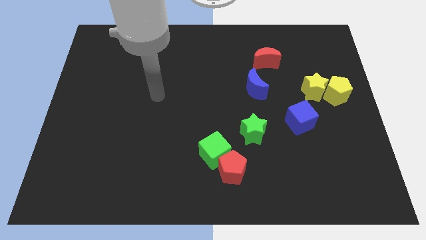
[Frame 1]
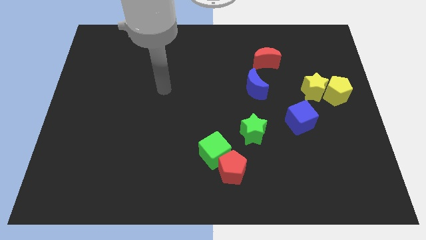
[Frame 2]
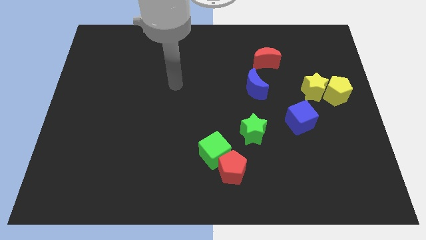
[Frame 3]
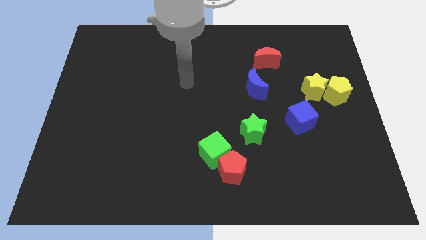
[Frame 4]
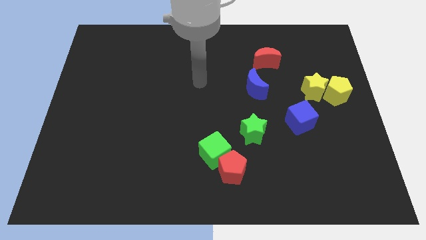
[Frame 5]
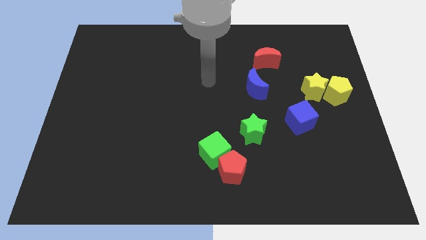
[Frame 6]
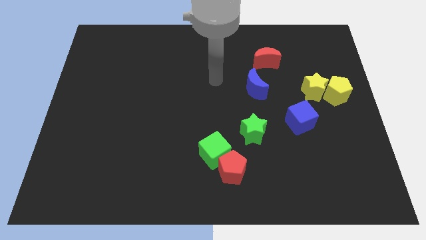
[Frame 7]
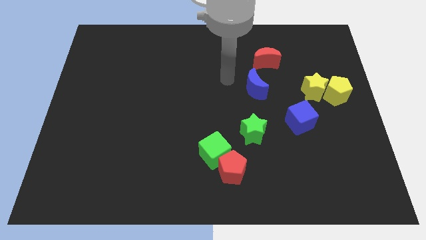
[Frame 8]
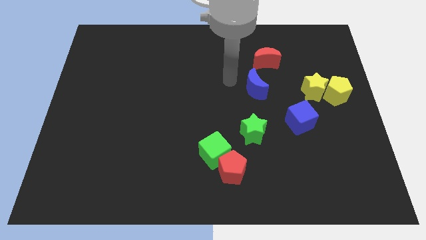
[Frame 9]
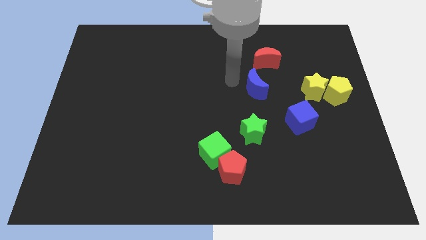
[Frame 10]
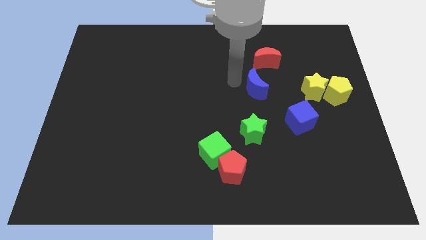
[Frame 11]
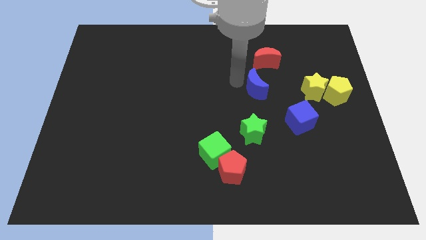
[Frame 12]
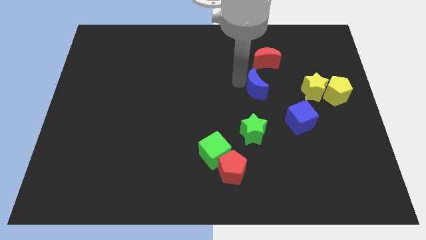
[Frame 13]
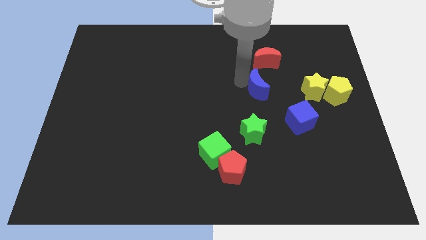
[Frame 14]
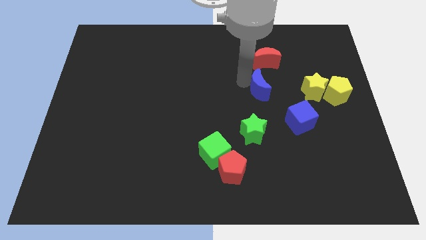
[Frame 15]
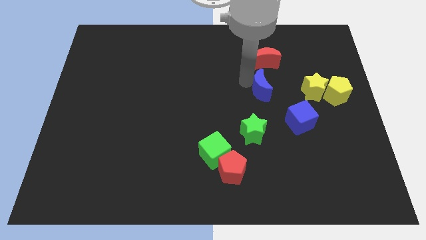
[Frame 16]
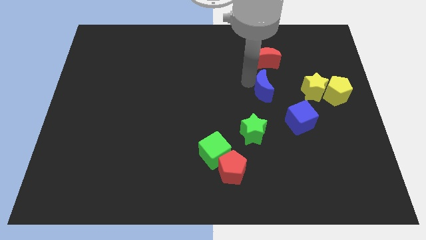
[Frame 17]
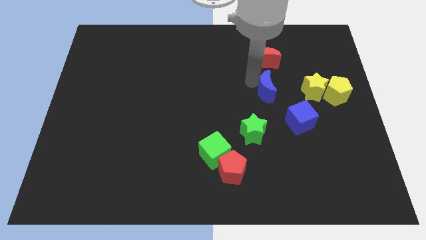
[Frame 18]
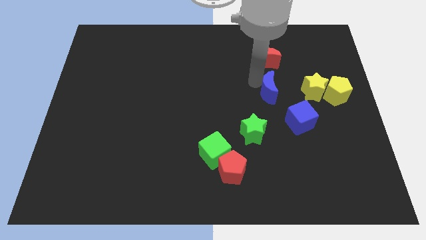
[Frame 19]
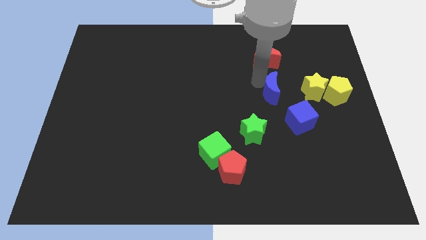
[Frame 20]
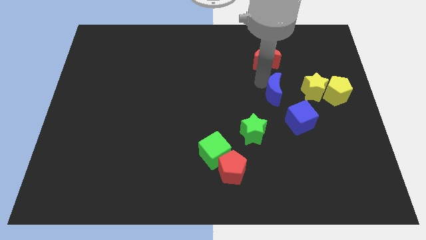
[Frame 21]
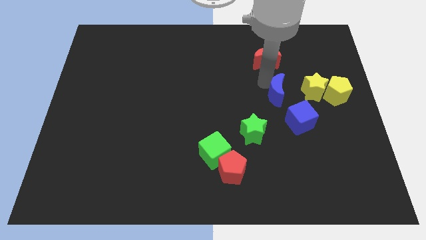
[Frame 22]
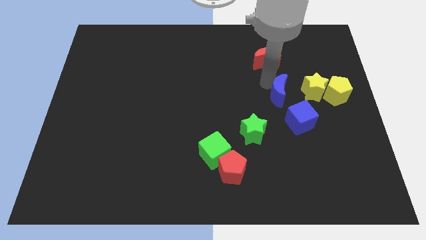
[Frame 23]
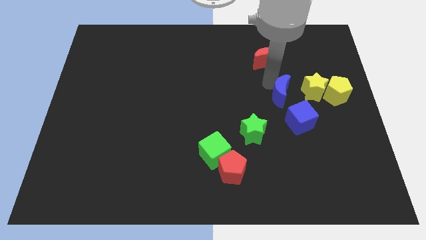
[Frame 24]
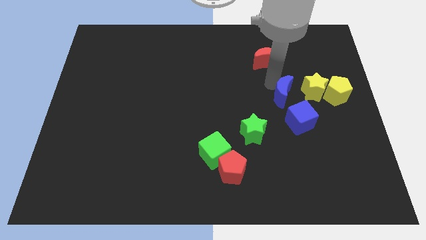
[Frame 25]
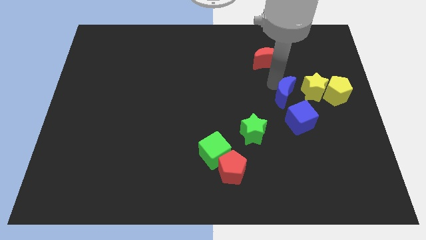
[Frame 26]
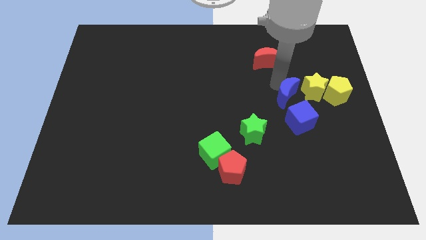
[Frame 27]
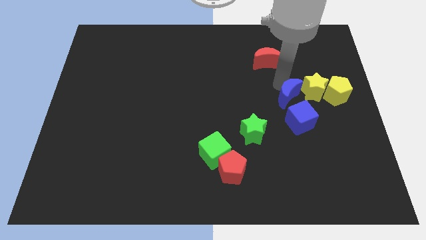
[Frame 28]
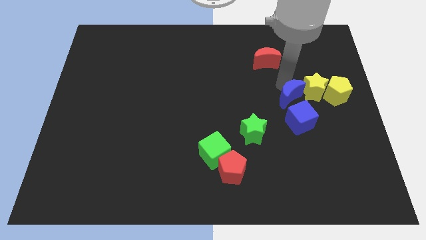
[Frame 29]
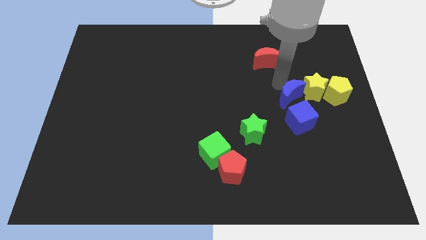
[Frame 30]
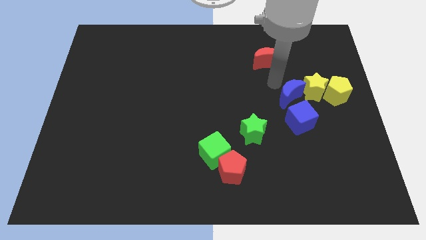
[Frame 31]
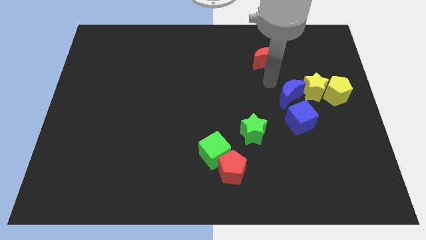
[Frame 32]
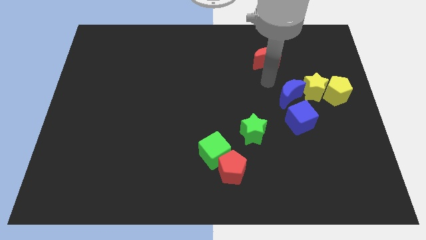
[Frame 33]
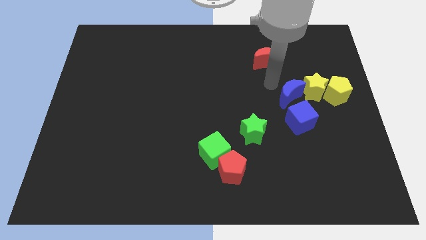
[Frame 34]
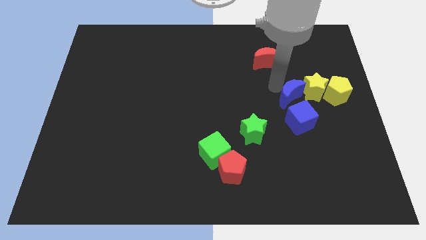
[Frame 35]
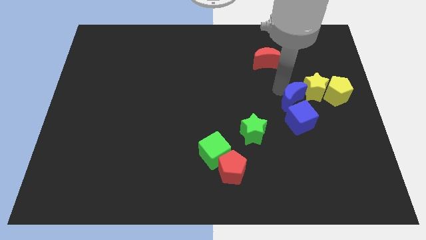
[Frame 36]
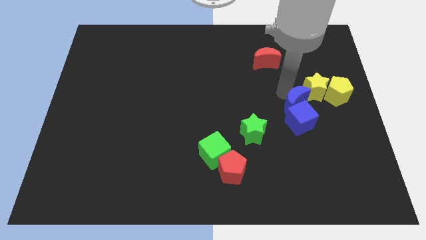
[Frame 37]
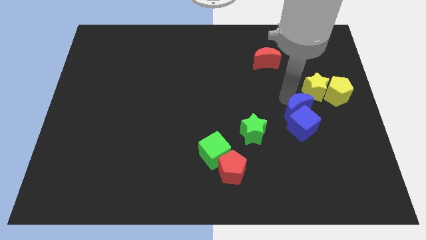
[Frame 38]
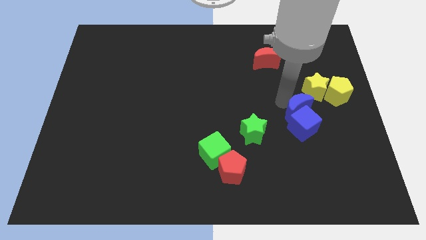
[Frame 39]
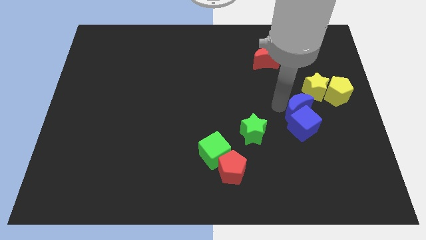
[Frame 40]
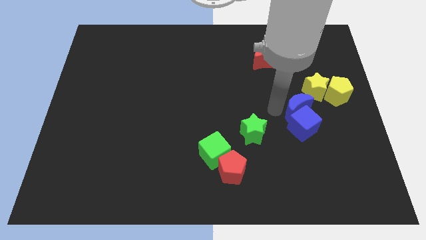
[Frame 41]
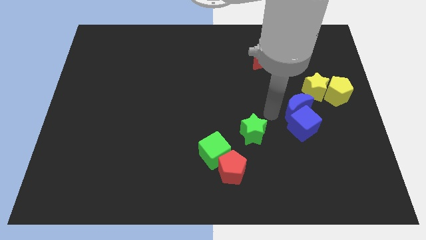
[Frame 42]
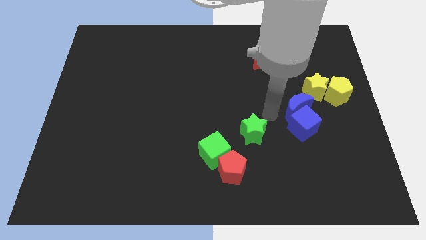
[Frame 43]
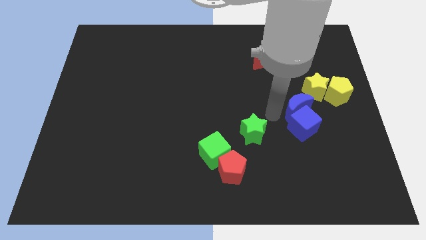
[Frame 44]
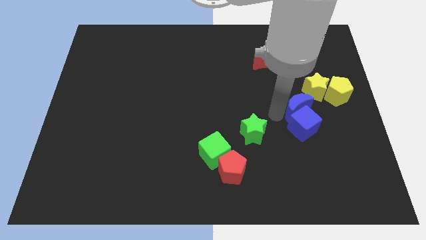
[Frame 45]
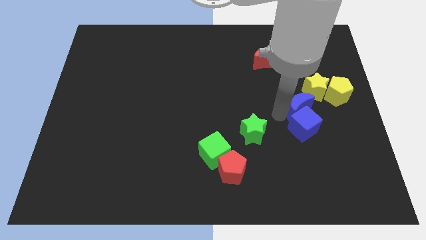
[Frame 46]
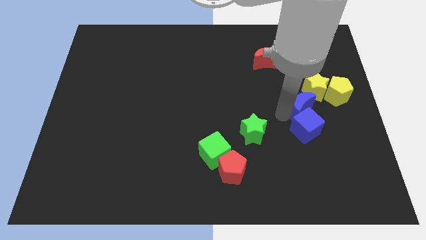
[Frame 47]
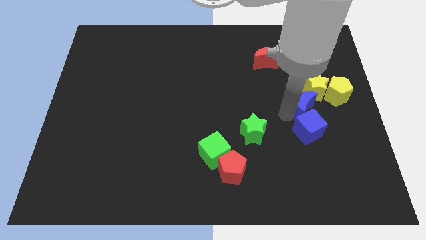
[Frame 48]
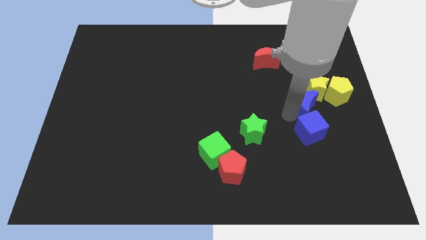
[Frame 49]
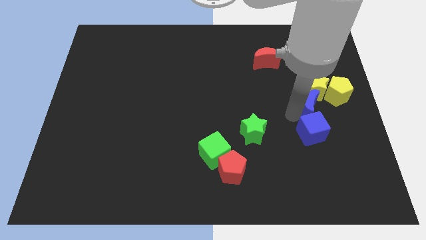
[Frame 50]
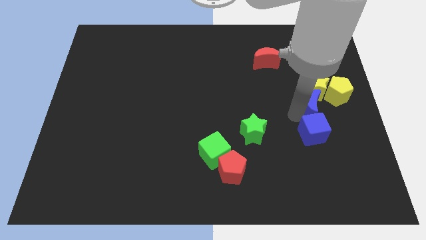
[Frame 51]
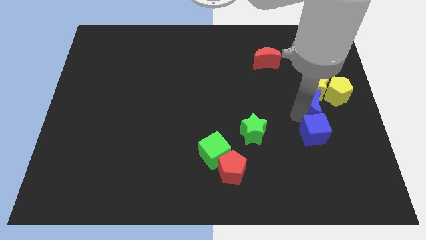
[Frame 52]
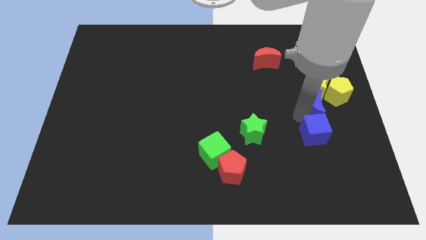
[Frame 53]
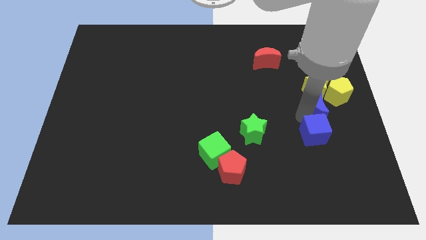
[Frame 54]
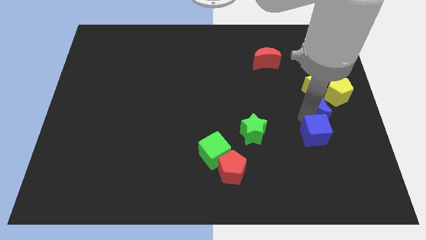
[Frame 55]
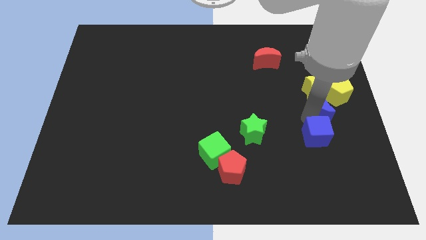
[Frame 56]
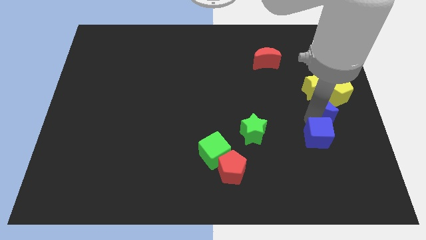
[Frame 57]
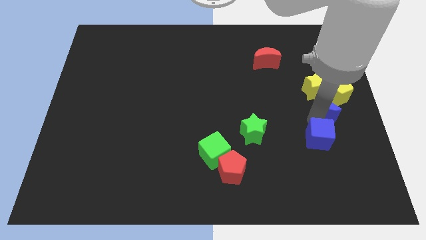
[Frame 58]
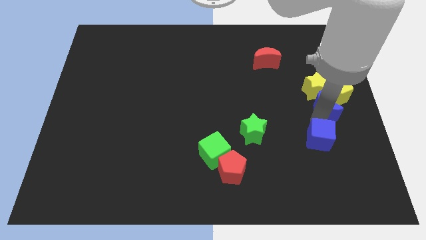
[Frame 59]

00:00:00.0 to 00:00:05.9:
put the blue moon to the yellow pentagon

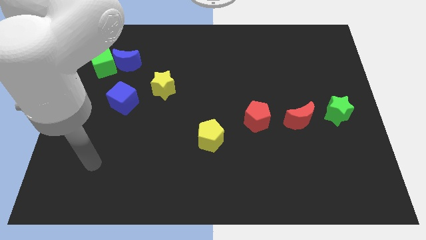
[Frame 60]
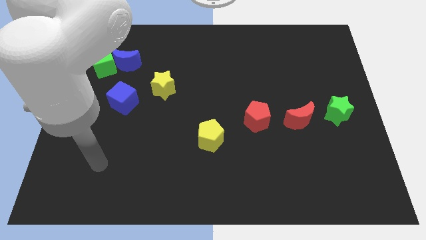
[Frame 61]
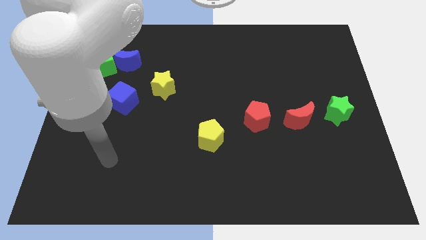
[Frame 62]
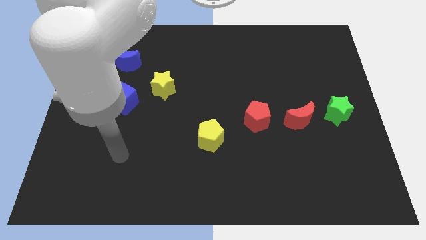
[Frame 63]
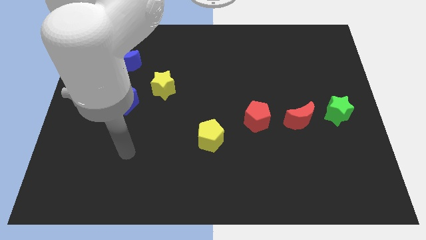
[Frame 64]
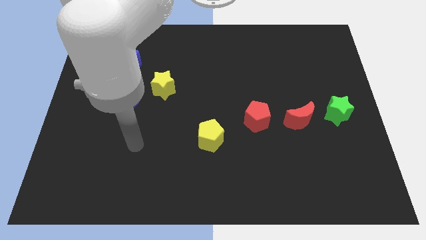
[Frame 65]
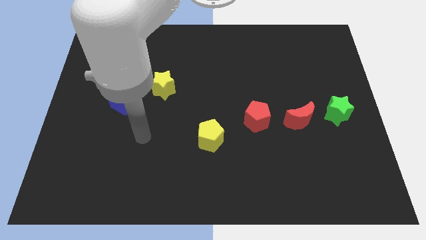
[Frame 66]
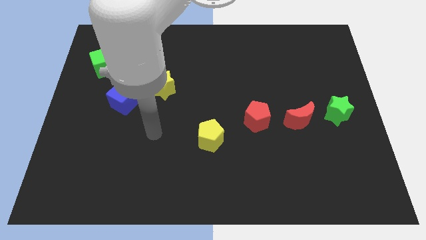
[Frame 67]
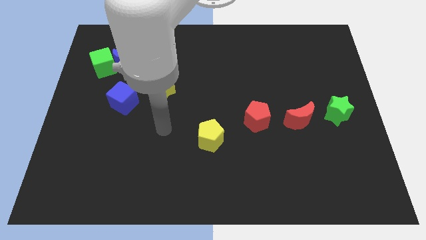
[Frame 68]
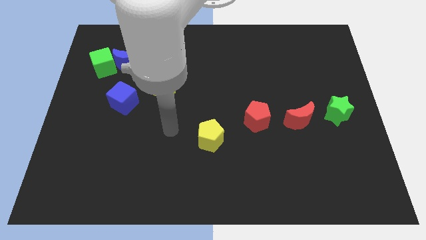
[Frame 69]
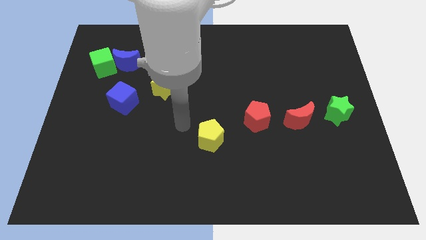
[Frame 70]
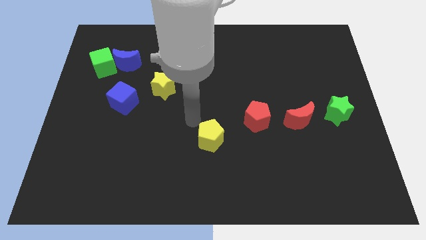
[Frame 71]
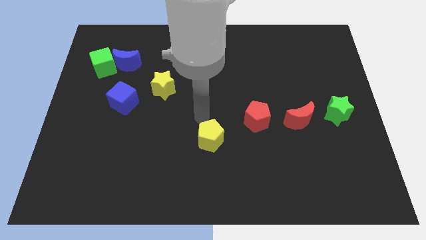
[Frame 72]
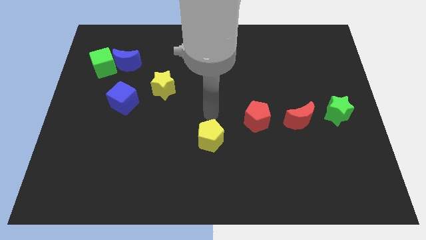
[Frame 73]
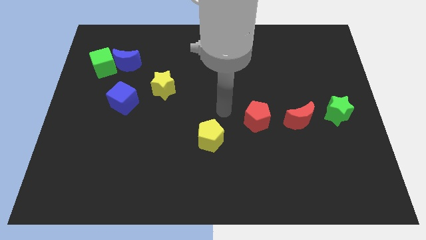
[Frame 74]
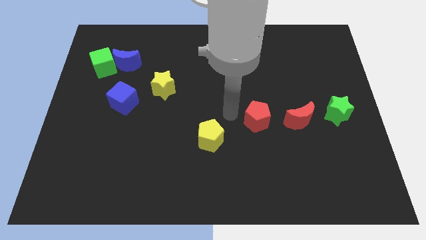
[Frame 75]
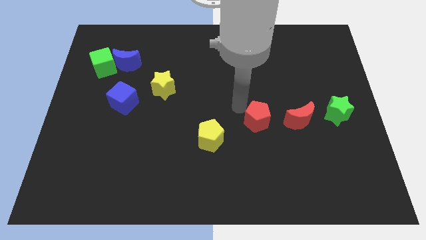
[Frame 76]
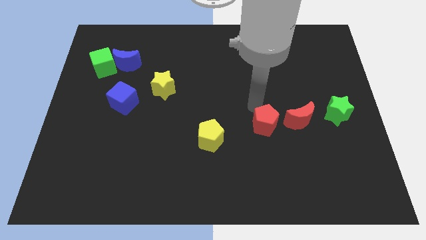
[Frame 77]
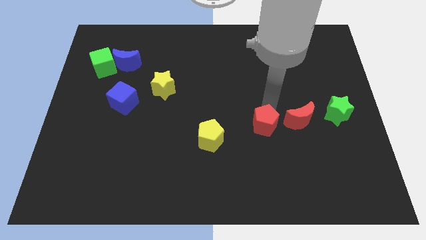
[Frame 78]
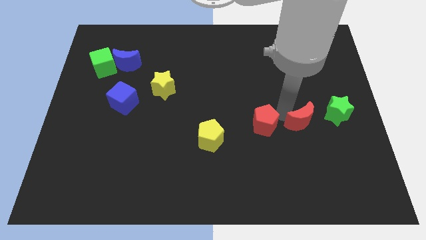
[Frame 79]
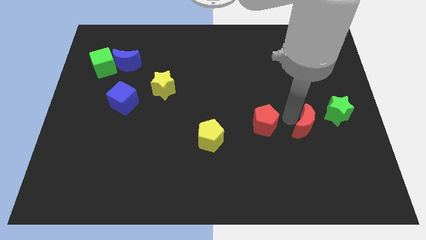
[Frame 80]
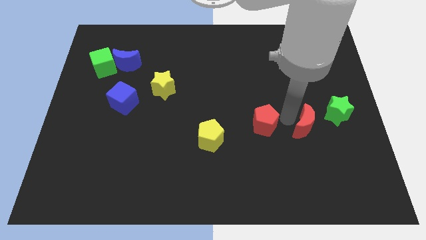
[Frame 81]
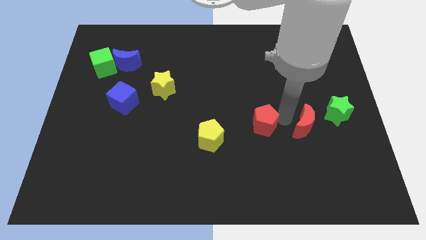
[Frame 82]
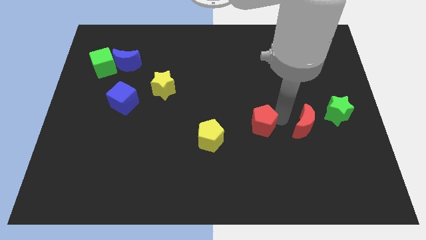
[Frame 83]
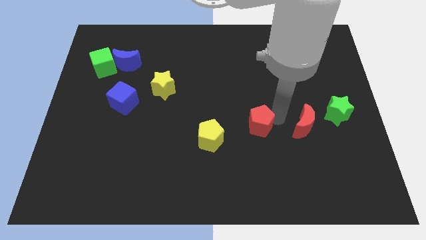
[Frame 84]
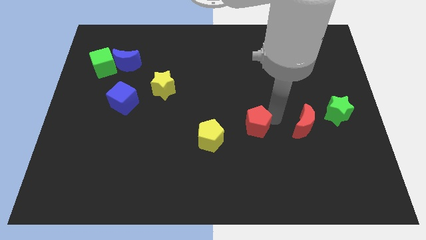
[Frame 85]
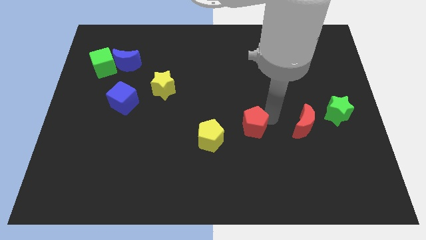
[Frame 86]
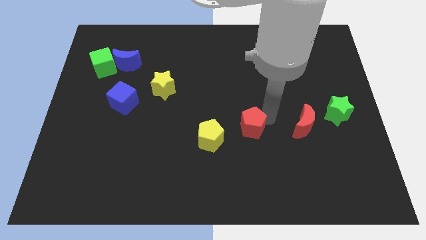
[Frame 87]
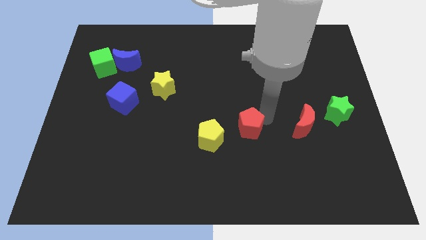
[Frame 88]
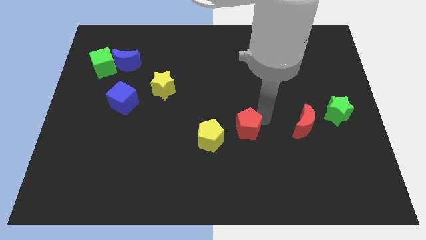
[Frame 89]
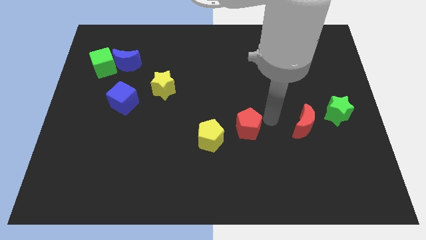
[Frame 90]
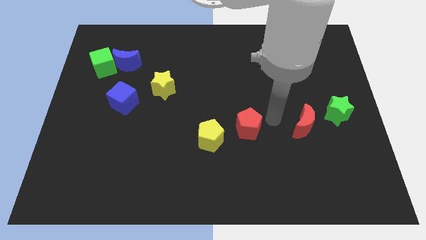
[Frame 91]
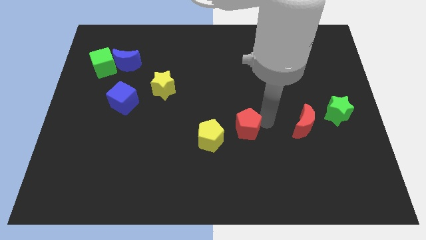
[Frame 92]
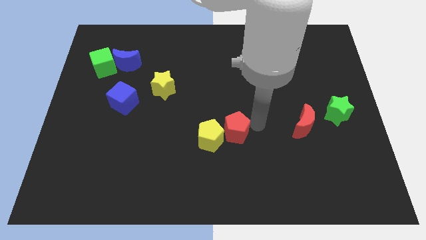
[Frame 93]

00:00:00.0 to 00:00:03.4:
push the red pentagon next to the yellow pentagon
